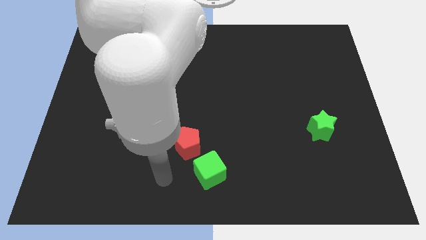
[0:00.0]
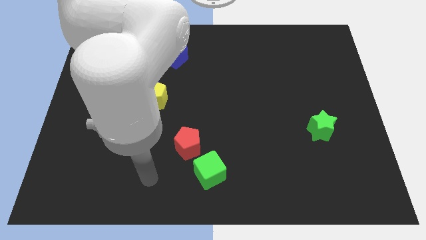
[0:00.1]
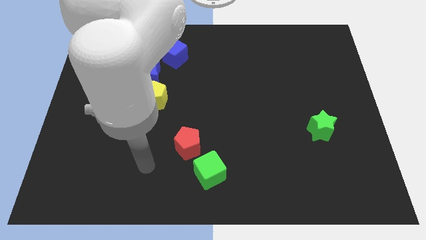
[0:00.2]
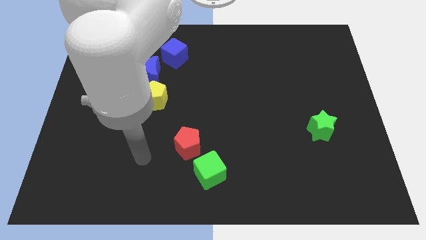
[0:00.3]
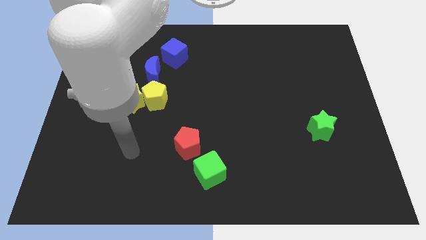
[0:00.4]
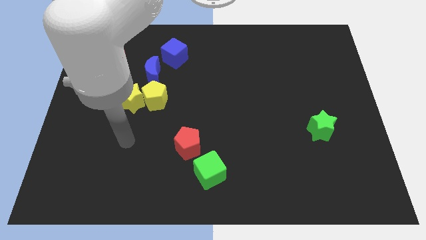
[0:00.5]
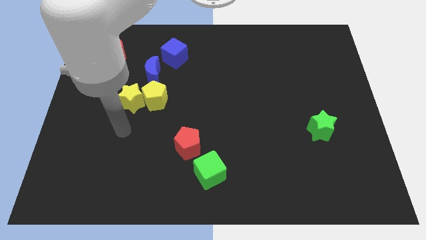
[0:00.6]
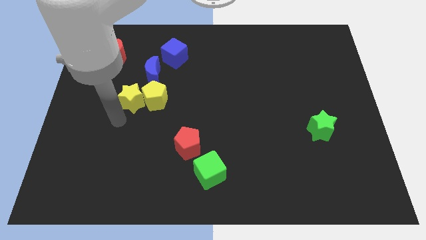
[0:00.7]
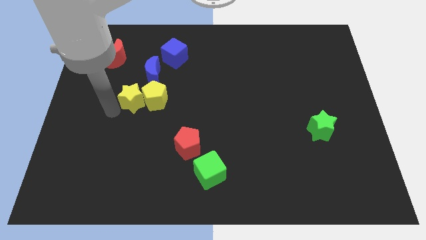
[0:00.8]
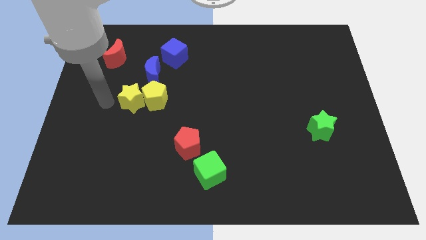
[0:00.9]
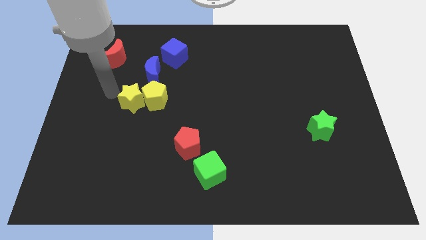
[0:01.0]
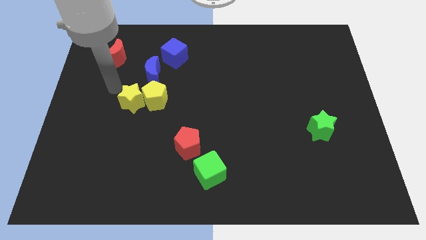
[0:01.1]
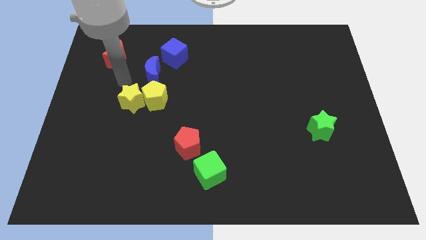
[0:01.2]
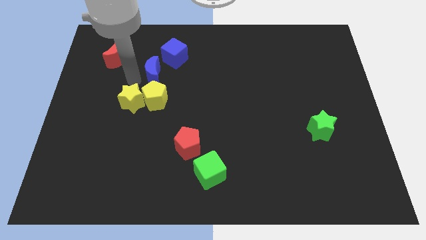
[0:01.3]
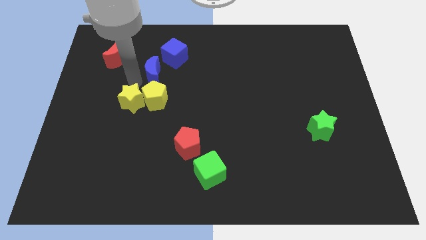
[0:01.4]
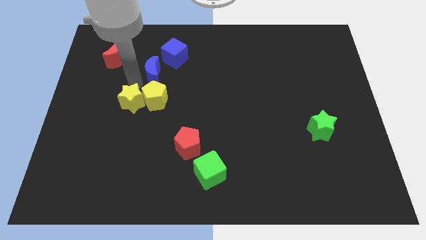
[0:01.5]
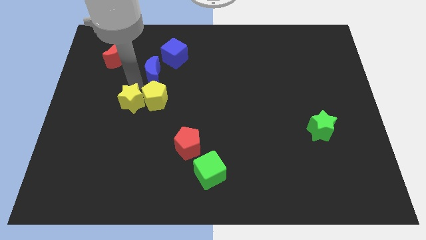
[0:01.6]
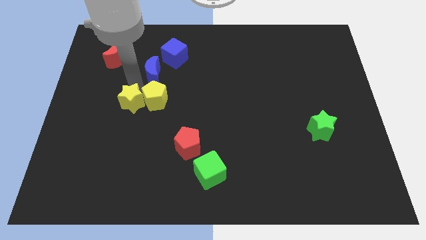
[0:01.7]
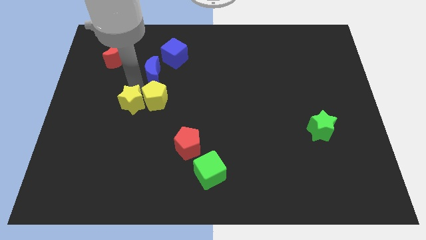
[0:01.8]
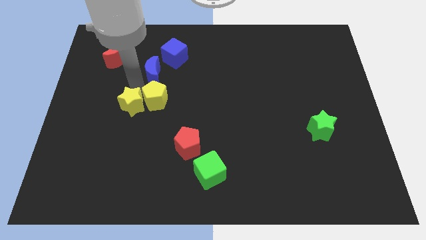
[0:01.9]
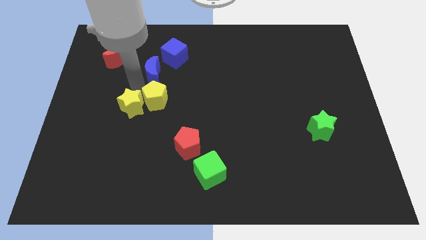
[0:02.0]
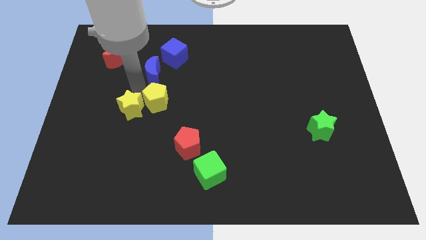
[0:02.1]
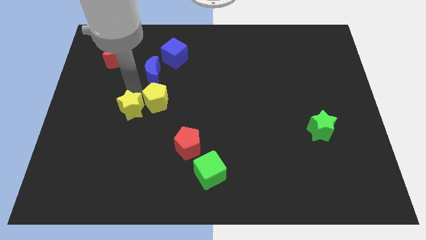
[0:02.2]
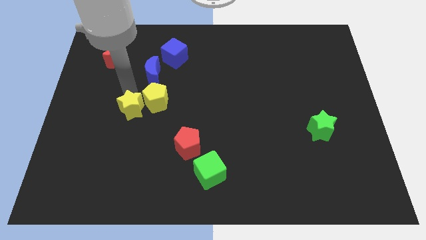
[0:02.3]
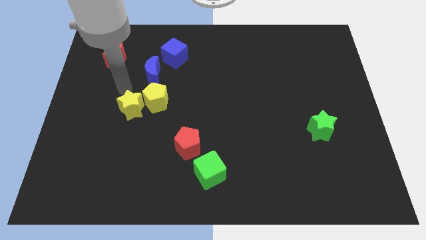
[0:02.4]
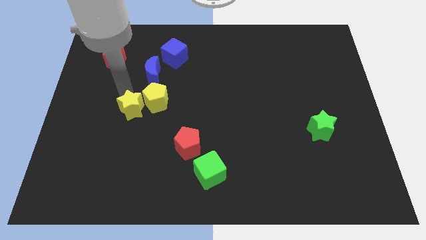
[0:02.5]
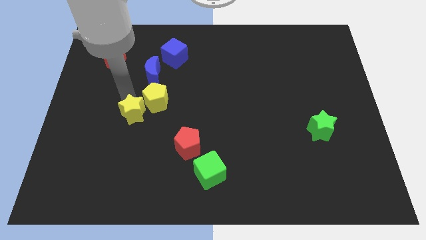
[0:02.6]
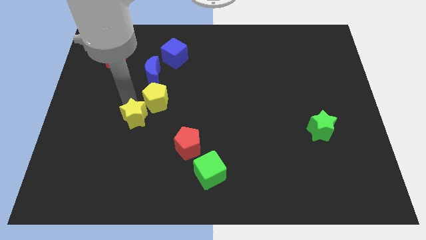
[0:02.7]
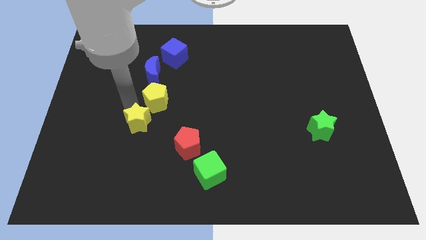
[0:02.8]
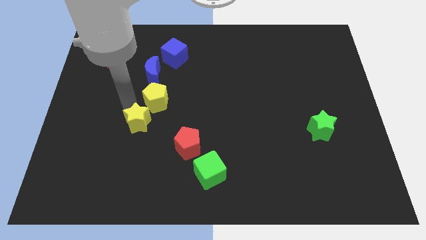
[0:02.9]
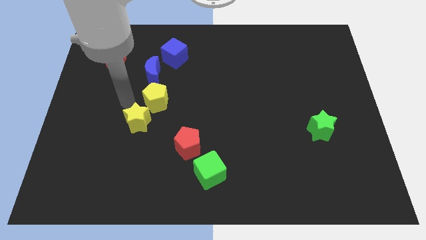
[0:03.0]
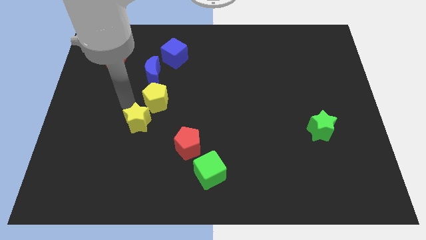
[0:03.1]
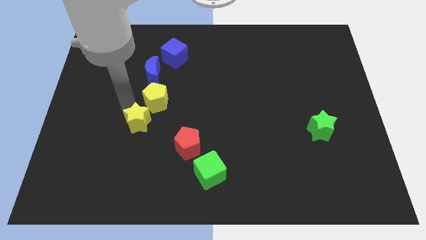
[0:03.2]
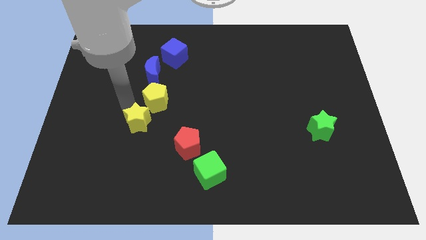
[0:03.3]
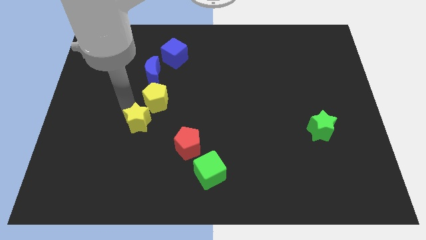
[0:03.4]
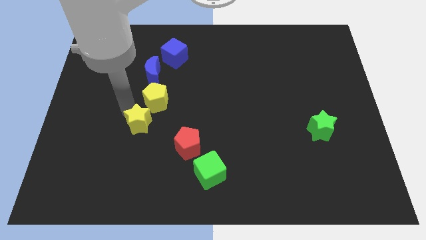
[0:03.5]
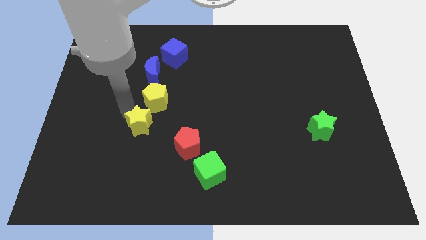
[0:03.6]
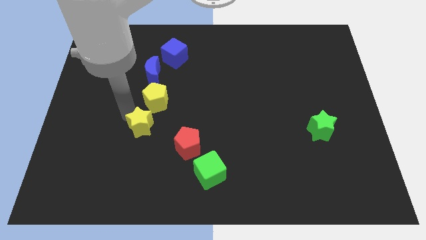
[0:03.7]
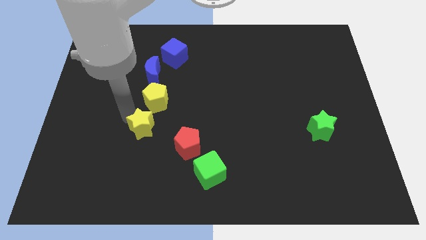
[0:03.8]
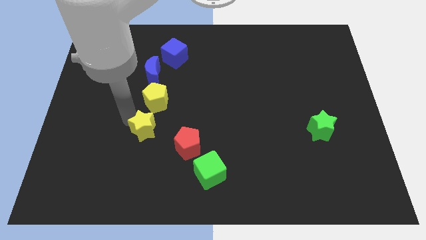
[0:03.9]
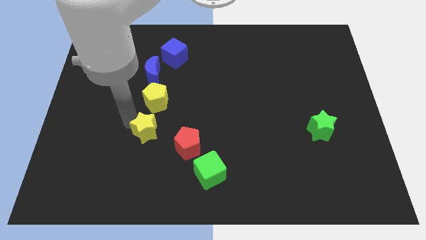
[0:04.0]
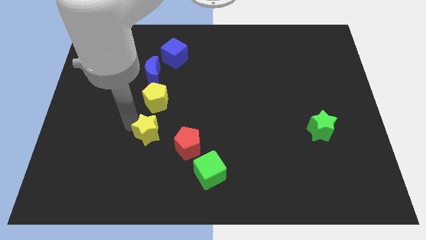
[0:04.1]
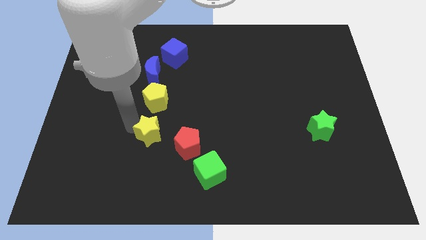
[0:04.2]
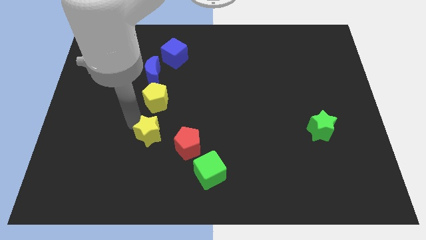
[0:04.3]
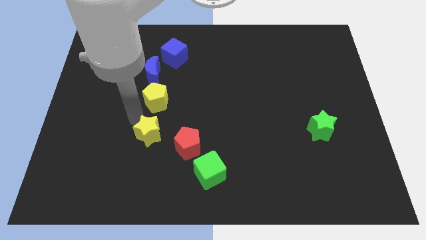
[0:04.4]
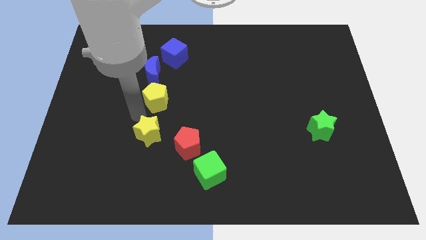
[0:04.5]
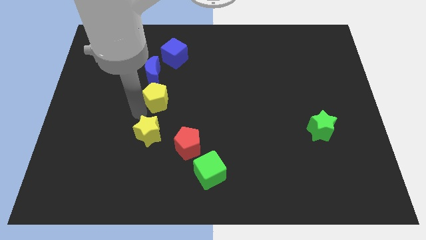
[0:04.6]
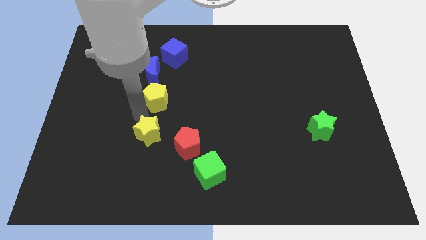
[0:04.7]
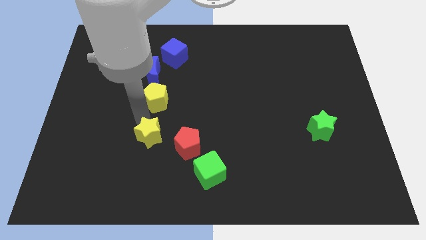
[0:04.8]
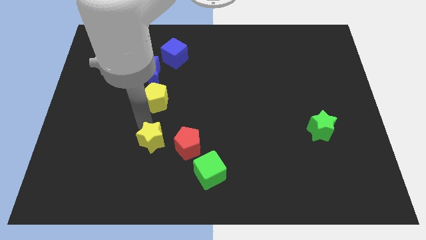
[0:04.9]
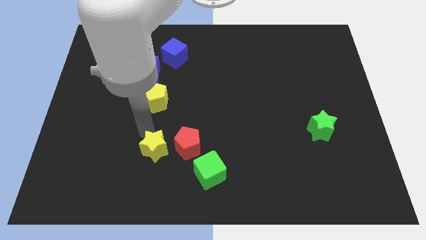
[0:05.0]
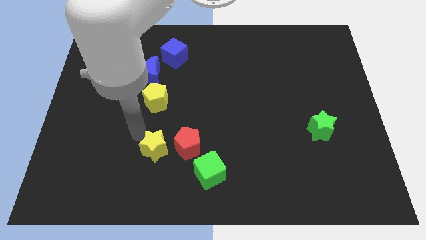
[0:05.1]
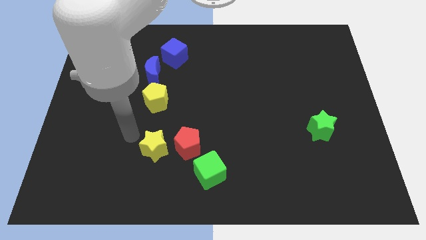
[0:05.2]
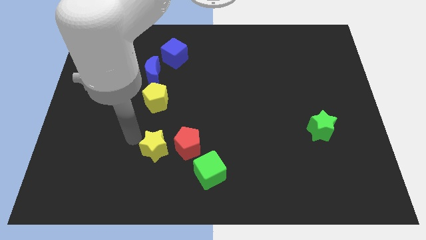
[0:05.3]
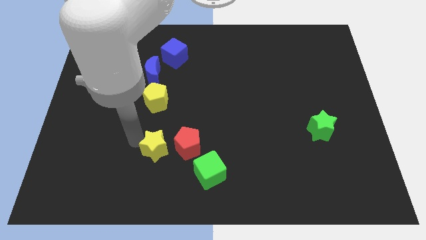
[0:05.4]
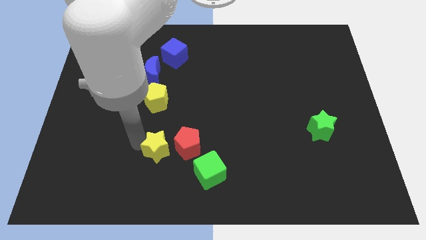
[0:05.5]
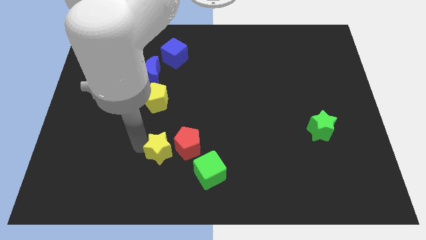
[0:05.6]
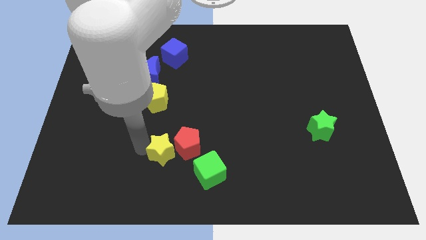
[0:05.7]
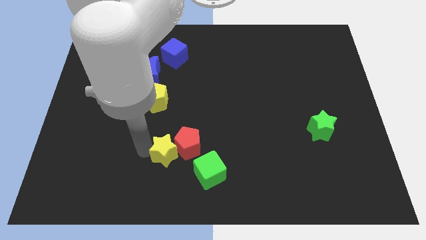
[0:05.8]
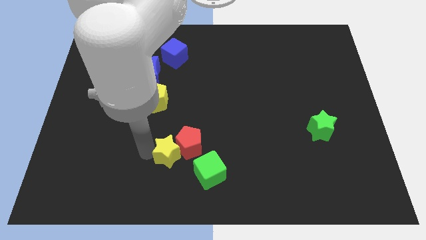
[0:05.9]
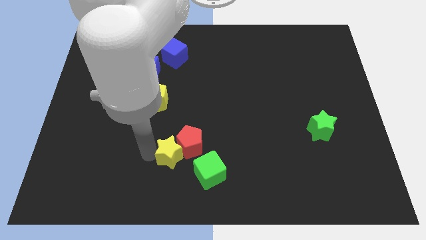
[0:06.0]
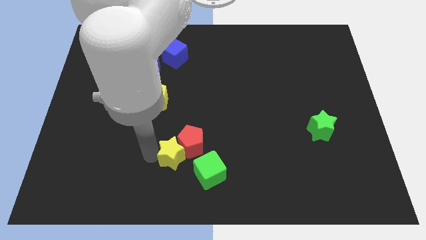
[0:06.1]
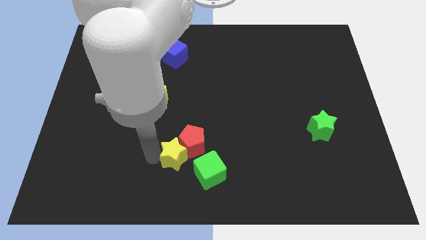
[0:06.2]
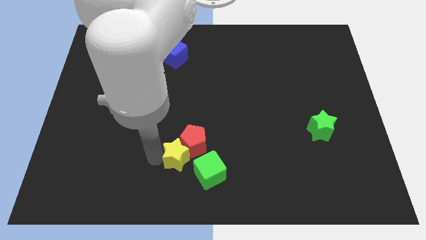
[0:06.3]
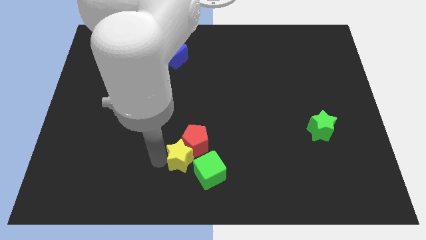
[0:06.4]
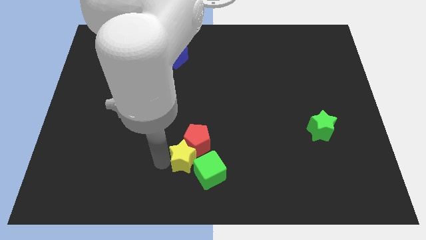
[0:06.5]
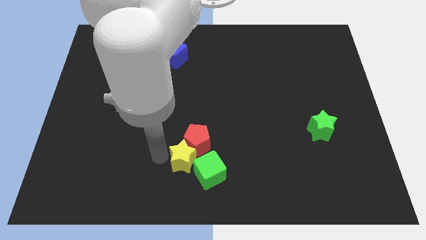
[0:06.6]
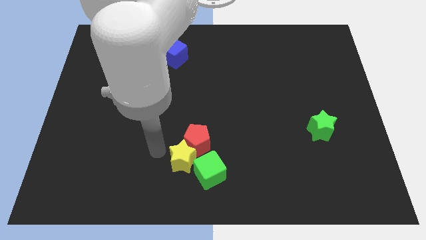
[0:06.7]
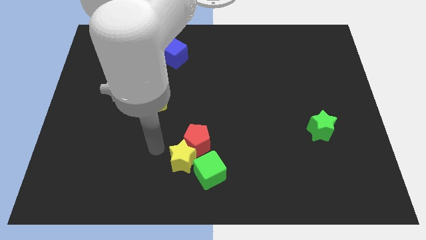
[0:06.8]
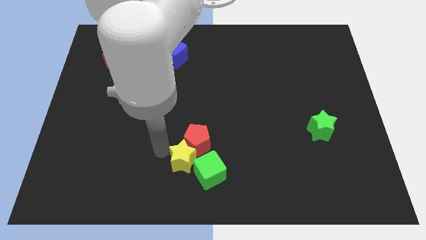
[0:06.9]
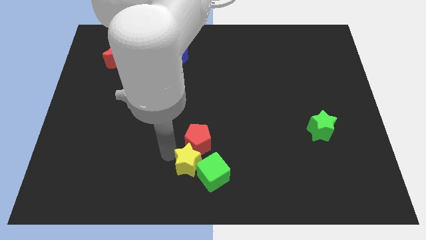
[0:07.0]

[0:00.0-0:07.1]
push the yellow star next to the green cube

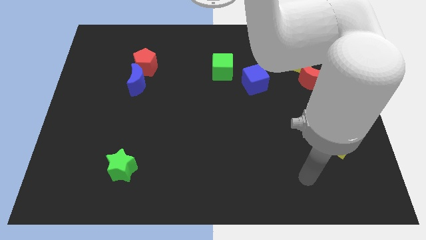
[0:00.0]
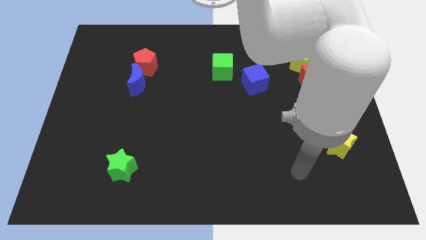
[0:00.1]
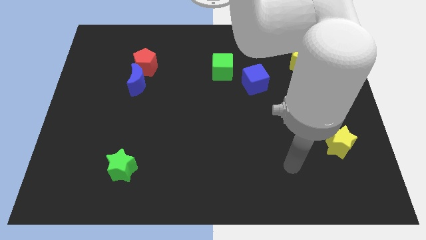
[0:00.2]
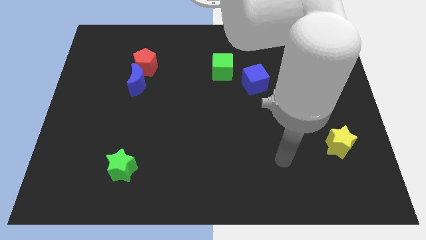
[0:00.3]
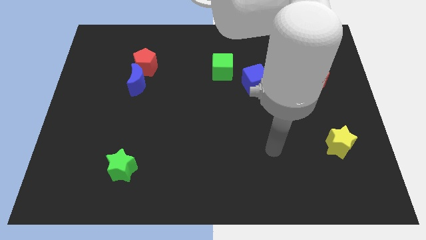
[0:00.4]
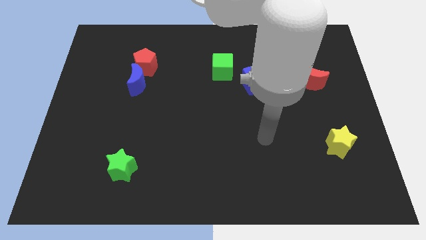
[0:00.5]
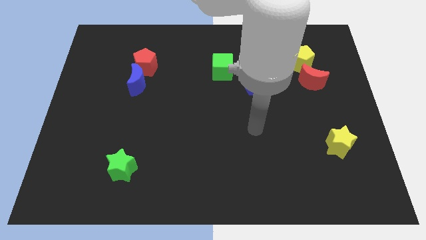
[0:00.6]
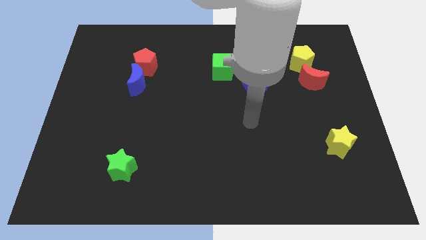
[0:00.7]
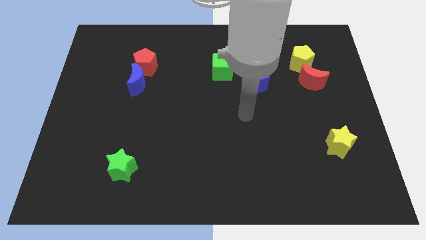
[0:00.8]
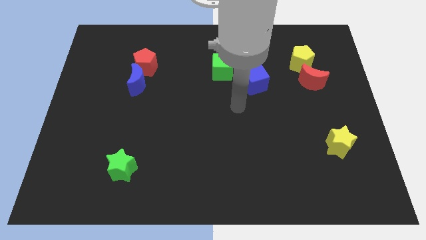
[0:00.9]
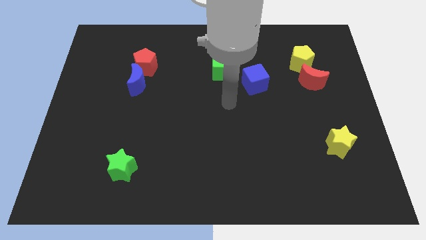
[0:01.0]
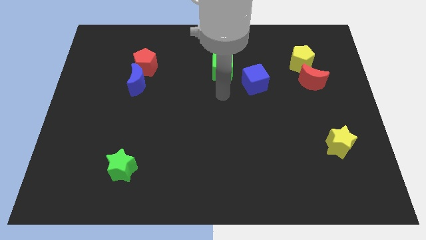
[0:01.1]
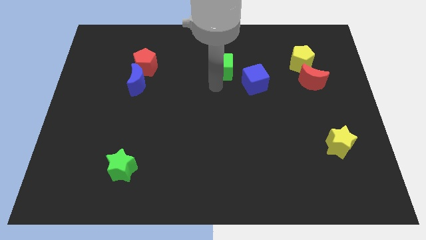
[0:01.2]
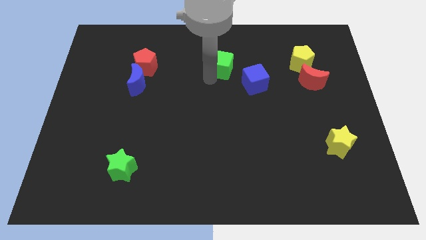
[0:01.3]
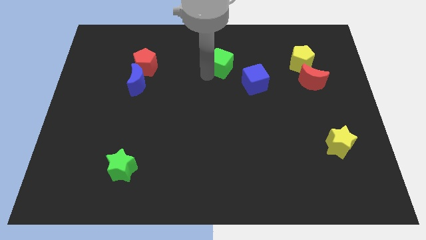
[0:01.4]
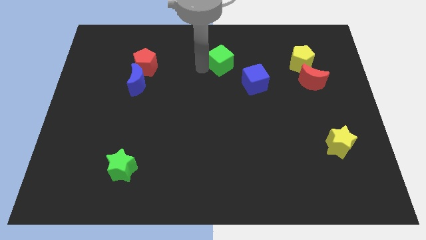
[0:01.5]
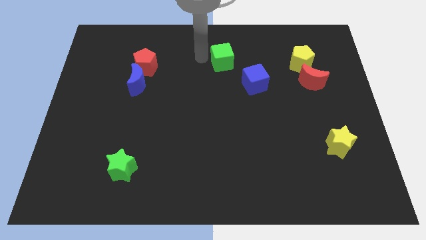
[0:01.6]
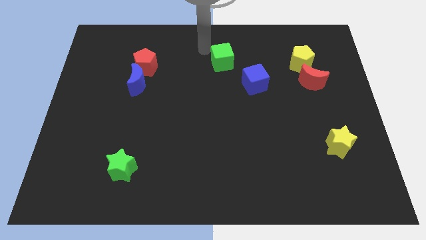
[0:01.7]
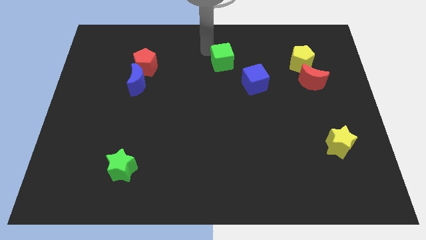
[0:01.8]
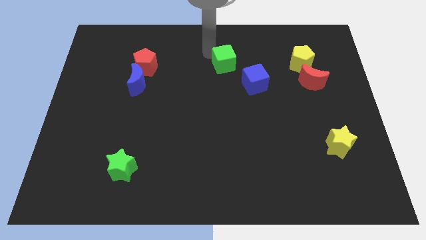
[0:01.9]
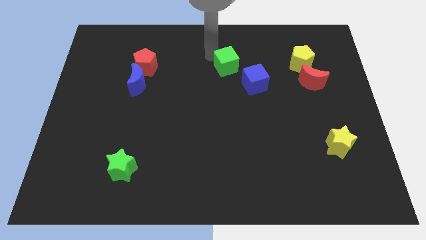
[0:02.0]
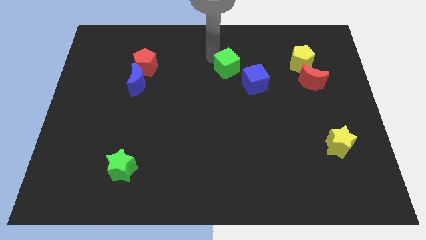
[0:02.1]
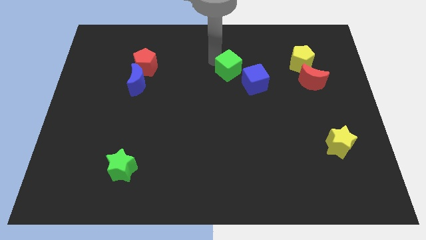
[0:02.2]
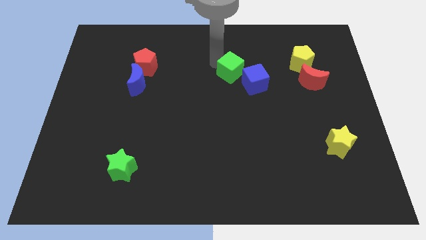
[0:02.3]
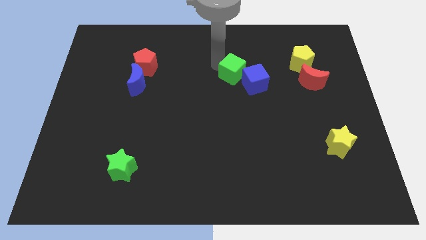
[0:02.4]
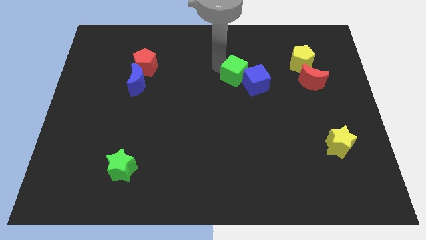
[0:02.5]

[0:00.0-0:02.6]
put the green cube next to the blue cube
